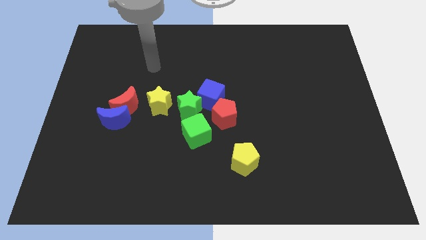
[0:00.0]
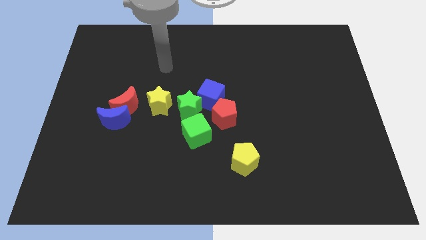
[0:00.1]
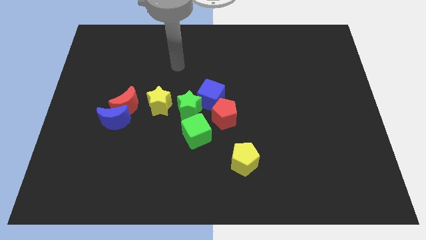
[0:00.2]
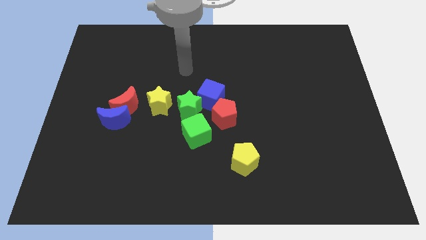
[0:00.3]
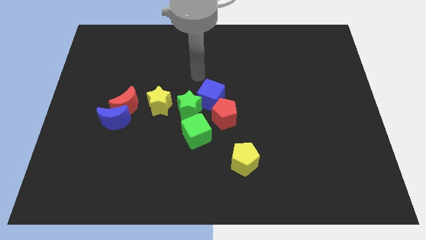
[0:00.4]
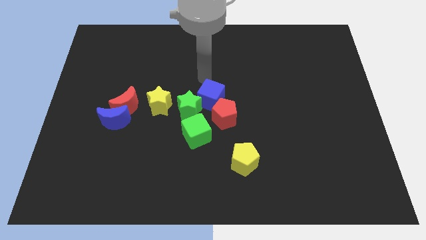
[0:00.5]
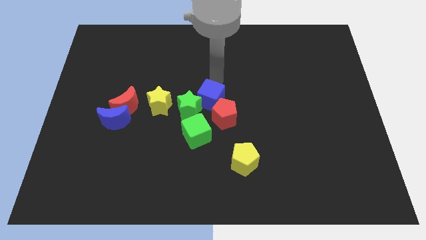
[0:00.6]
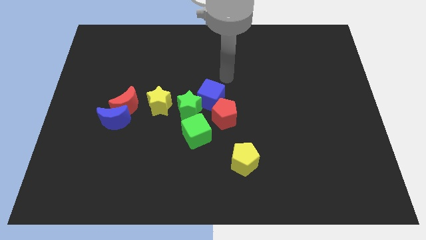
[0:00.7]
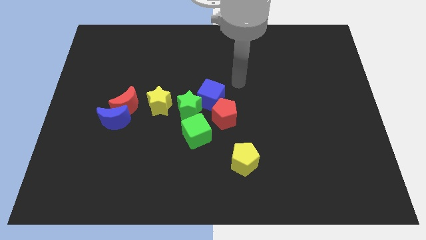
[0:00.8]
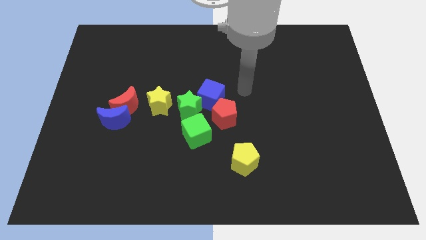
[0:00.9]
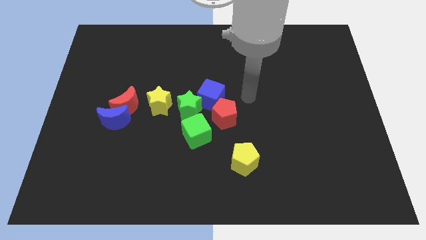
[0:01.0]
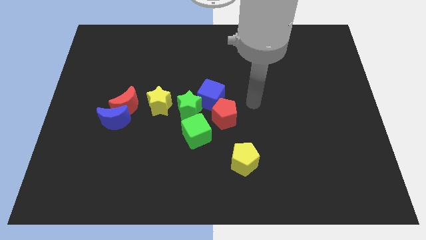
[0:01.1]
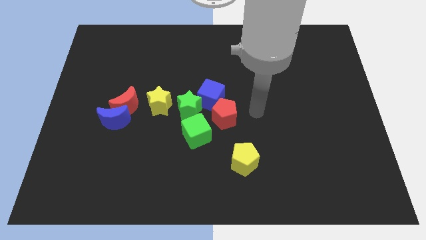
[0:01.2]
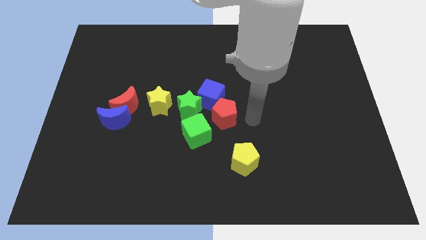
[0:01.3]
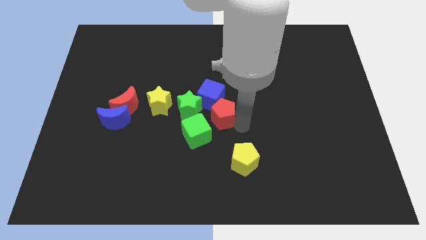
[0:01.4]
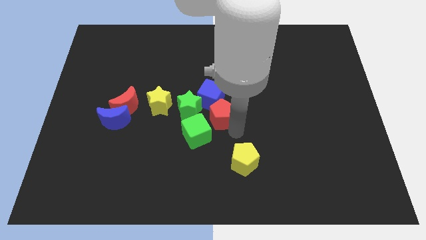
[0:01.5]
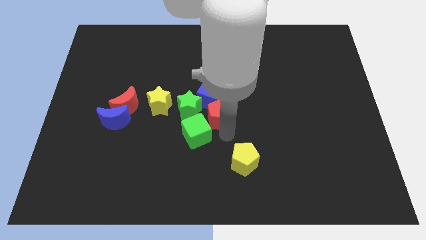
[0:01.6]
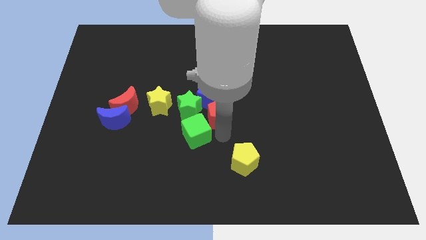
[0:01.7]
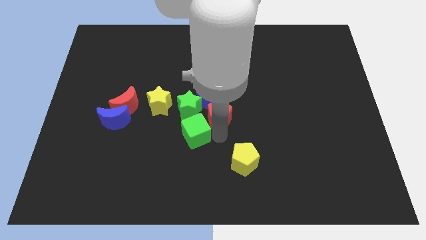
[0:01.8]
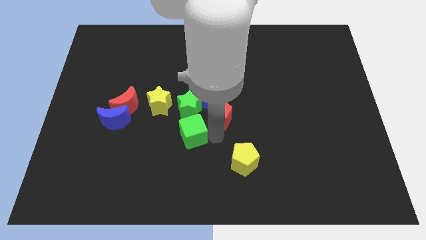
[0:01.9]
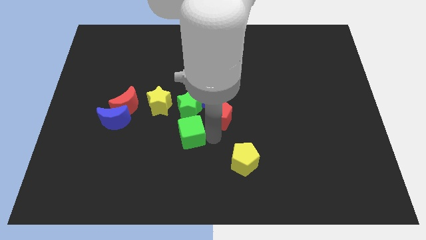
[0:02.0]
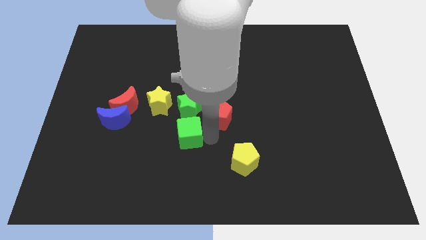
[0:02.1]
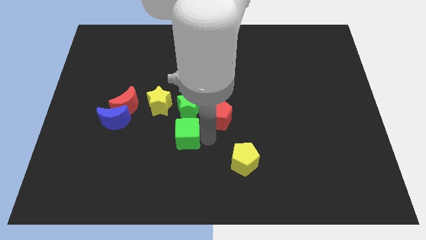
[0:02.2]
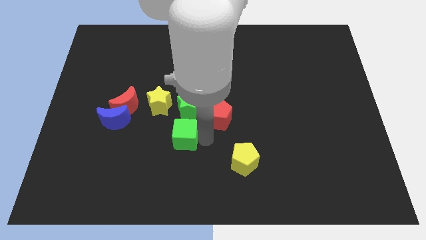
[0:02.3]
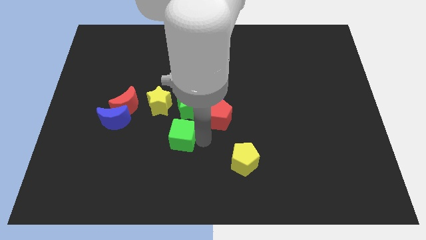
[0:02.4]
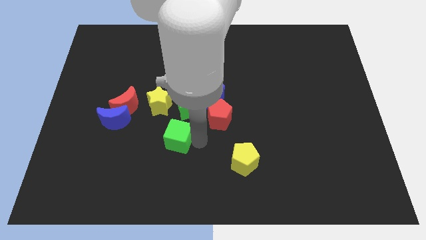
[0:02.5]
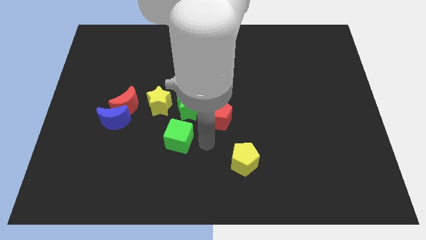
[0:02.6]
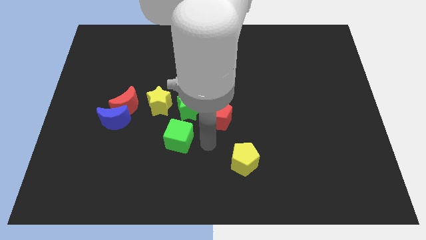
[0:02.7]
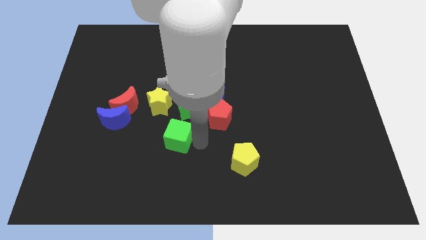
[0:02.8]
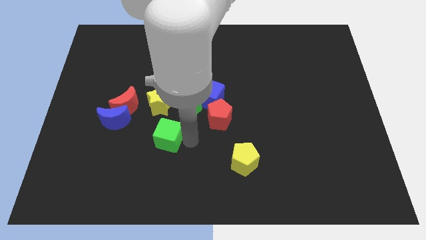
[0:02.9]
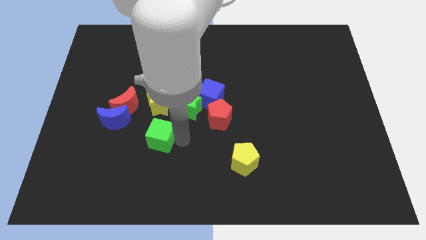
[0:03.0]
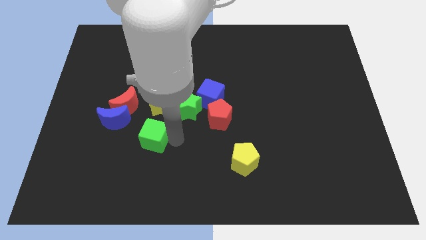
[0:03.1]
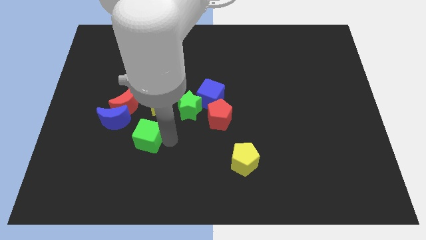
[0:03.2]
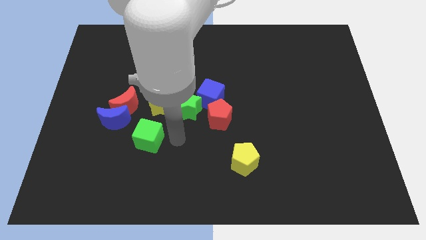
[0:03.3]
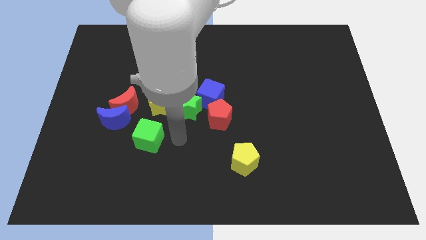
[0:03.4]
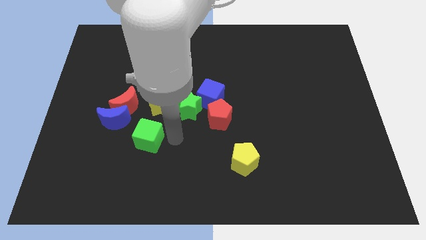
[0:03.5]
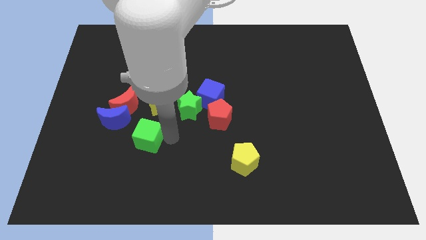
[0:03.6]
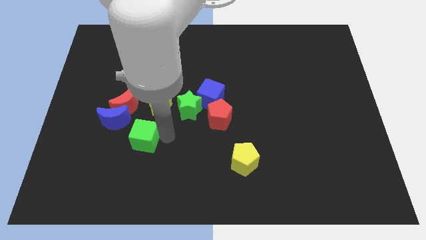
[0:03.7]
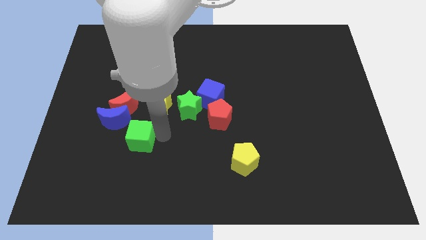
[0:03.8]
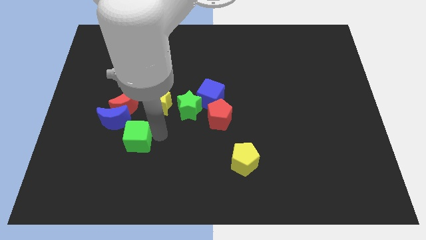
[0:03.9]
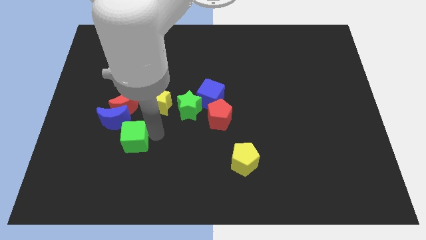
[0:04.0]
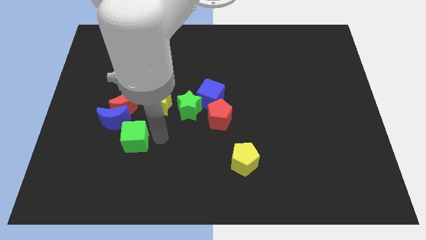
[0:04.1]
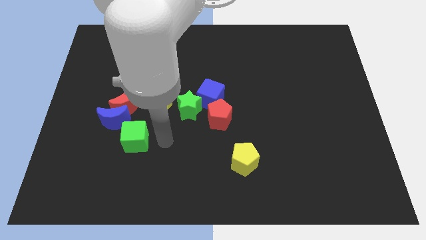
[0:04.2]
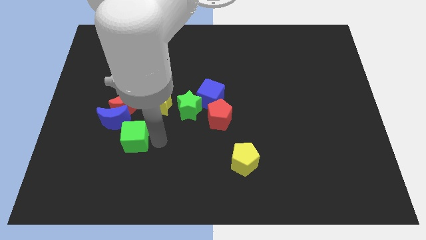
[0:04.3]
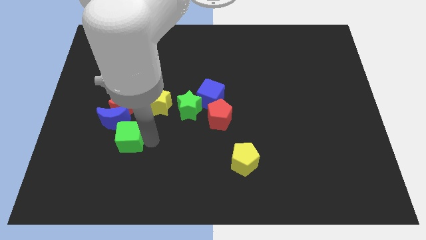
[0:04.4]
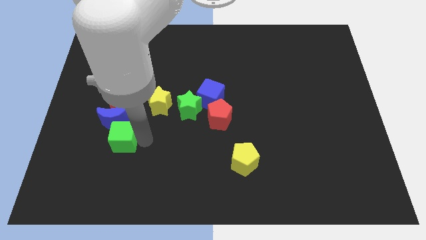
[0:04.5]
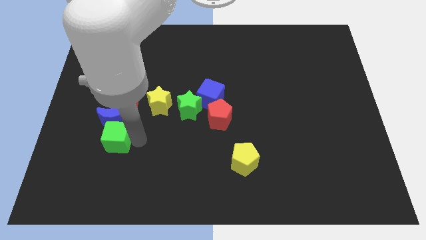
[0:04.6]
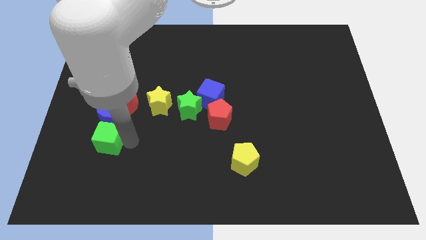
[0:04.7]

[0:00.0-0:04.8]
move the green cube diagonally down and to the left of the red moon

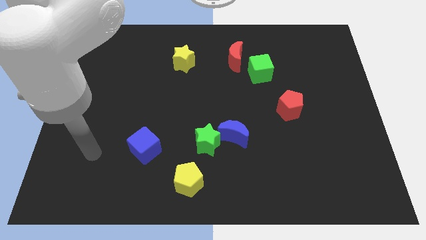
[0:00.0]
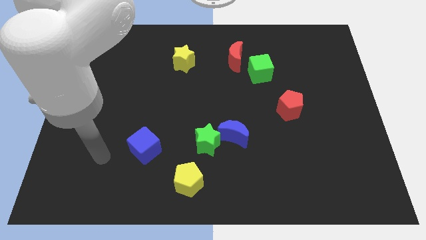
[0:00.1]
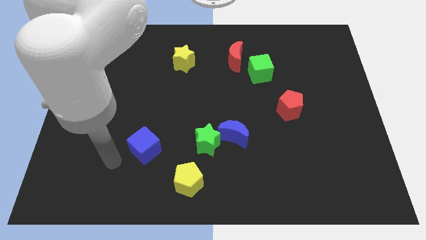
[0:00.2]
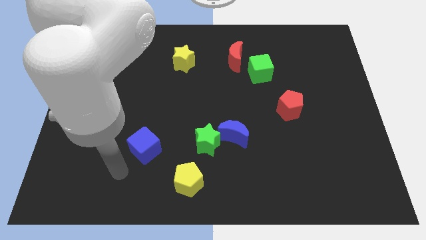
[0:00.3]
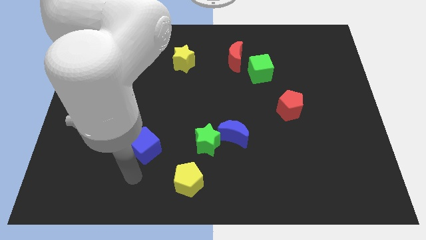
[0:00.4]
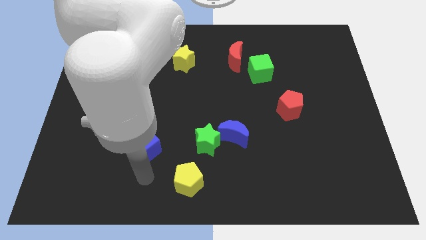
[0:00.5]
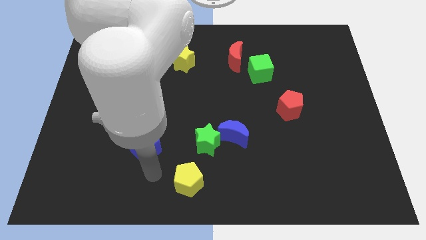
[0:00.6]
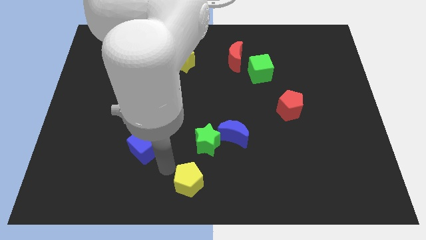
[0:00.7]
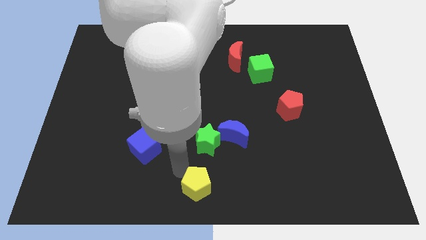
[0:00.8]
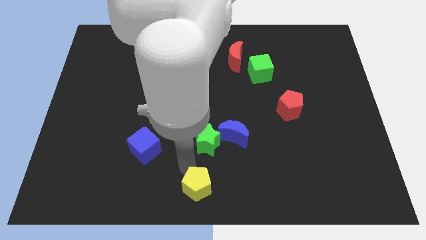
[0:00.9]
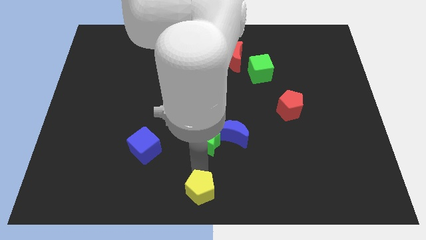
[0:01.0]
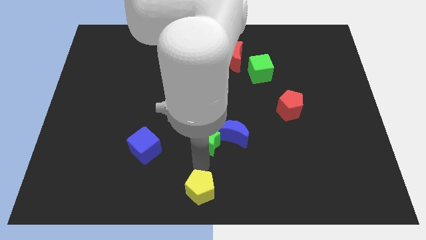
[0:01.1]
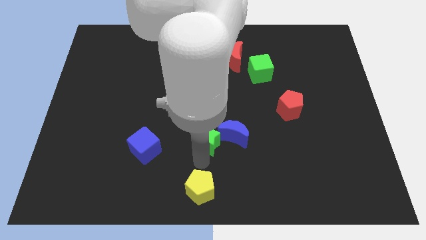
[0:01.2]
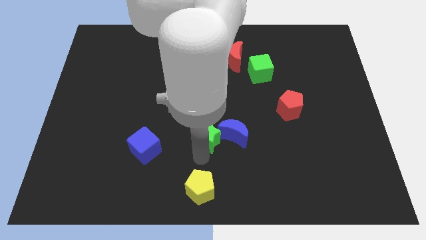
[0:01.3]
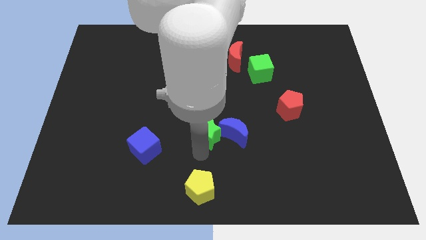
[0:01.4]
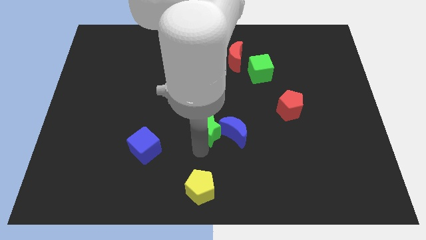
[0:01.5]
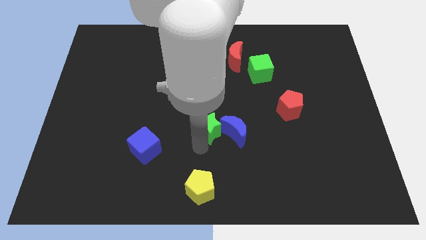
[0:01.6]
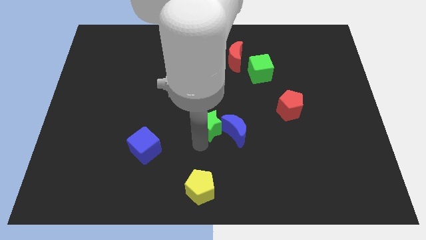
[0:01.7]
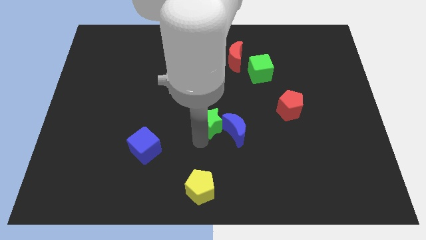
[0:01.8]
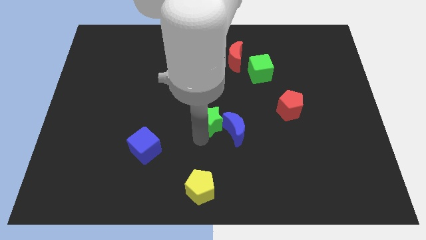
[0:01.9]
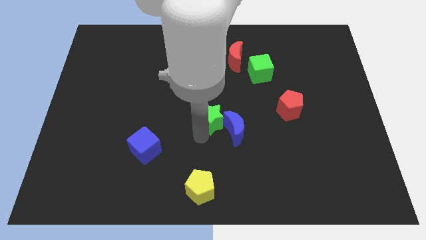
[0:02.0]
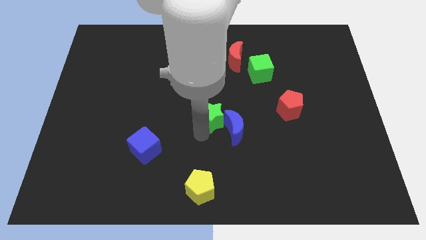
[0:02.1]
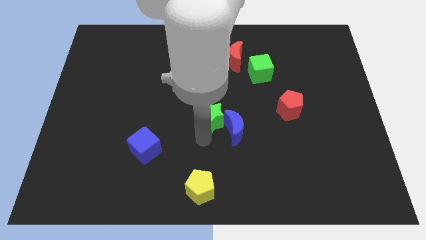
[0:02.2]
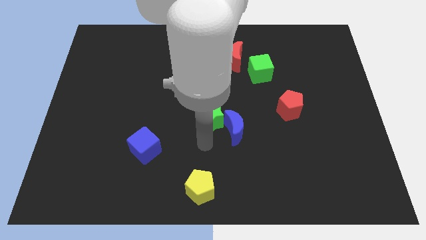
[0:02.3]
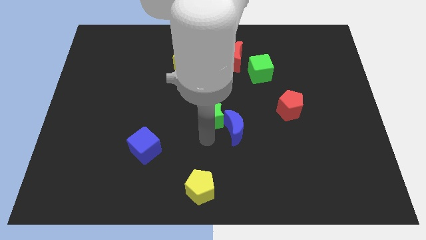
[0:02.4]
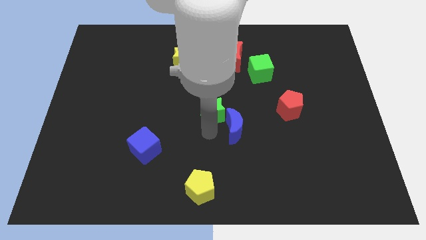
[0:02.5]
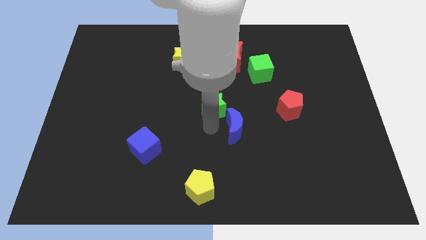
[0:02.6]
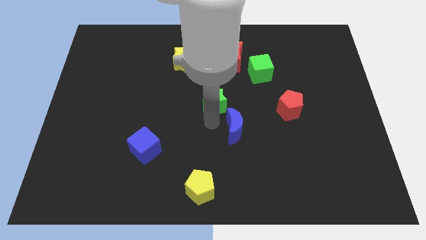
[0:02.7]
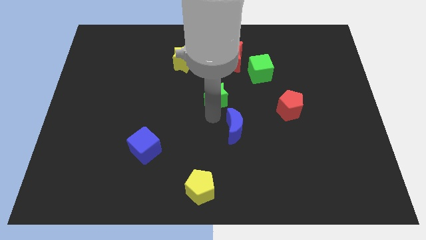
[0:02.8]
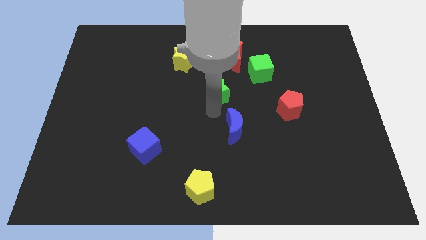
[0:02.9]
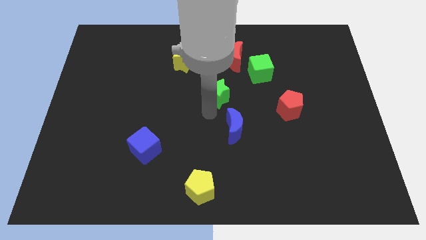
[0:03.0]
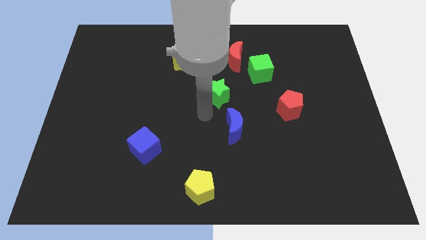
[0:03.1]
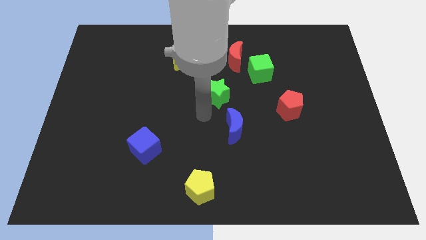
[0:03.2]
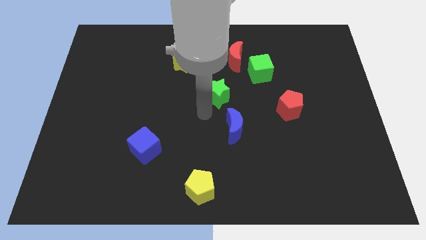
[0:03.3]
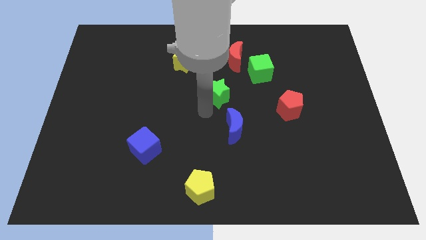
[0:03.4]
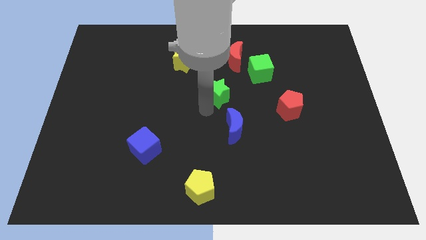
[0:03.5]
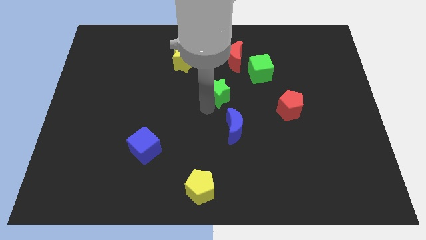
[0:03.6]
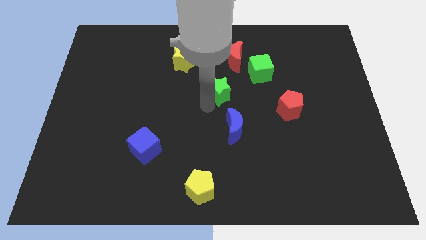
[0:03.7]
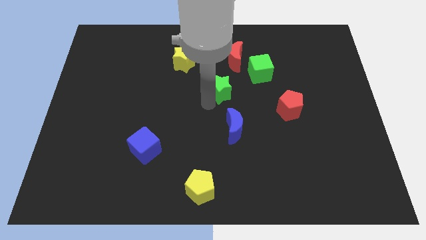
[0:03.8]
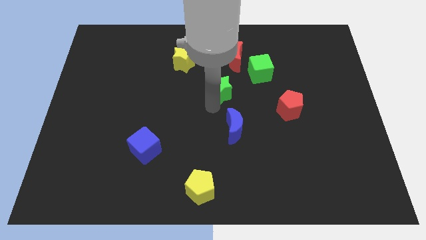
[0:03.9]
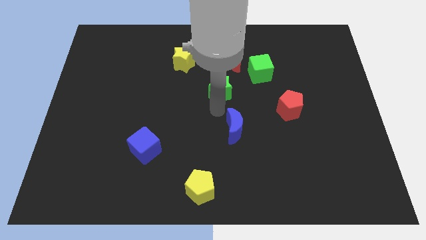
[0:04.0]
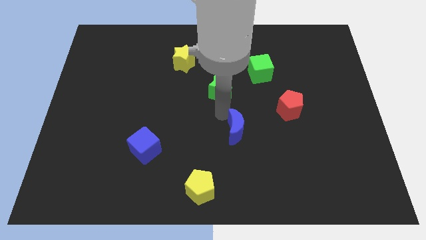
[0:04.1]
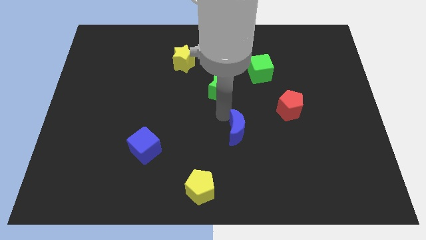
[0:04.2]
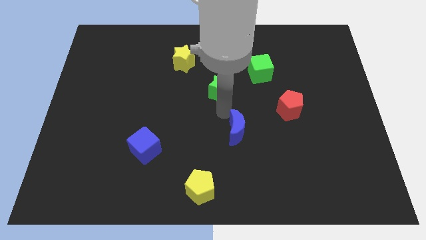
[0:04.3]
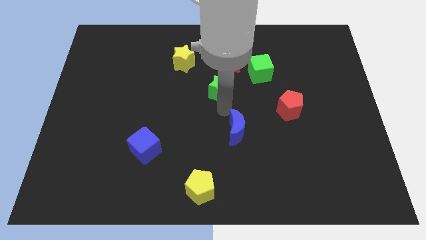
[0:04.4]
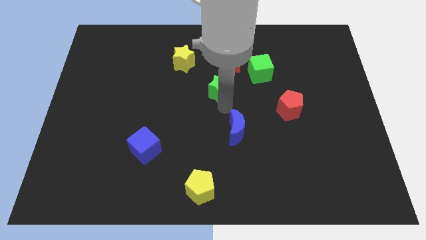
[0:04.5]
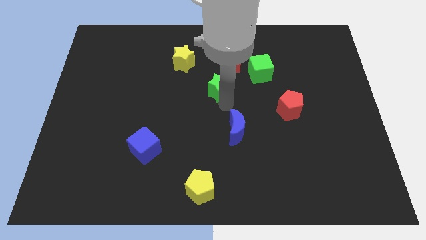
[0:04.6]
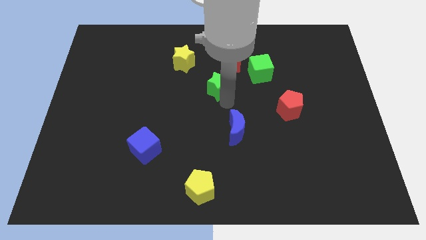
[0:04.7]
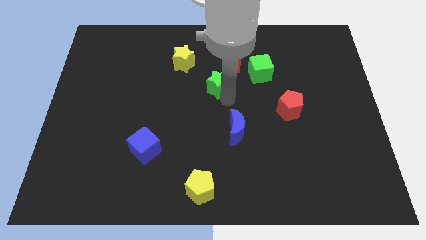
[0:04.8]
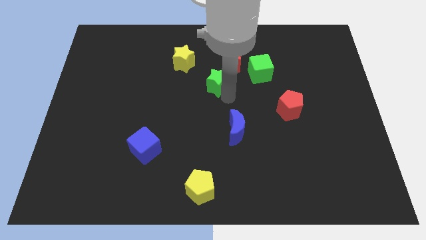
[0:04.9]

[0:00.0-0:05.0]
push the green star left of the green cube
